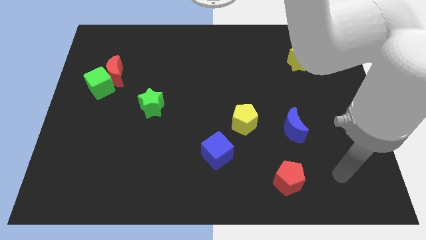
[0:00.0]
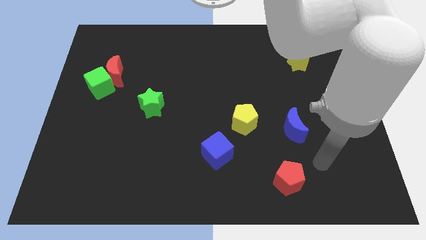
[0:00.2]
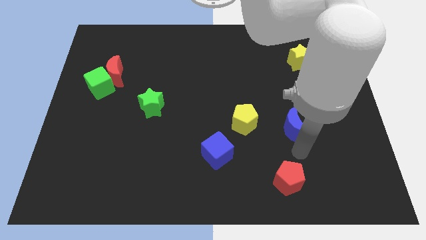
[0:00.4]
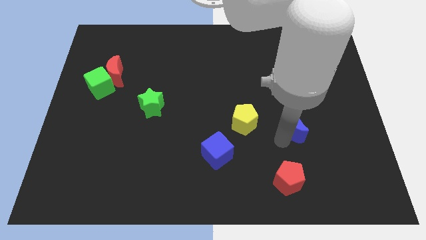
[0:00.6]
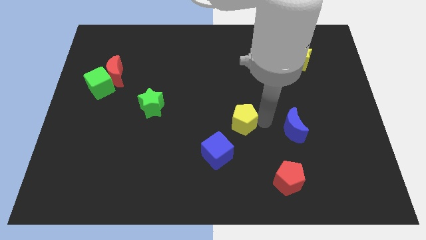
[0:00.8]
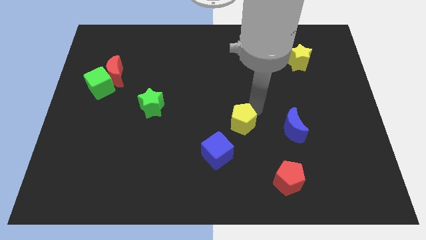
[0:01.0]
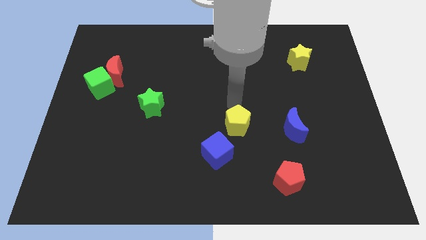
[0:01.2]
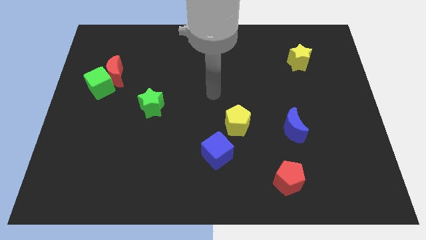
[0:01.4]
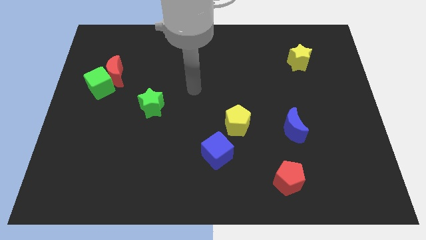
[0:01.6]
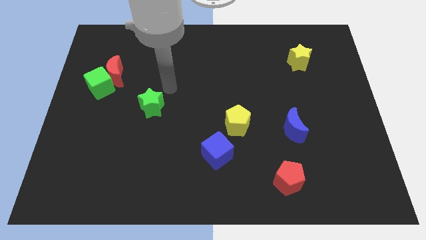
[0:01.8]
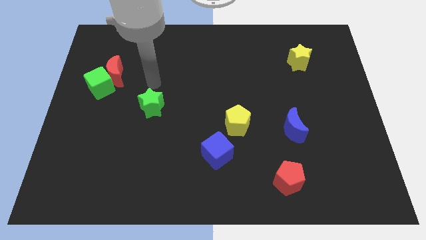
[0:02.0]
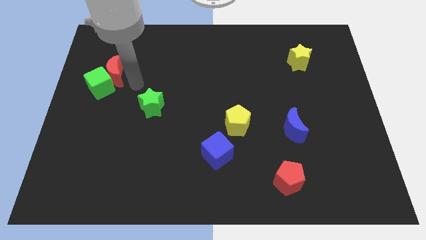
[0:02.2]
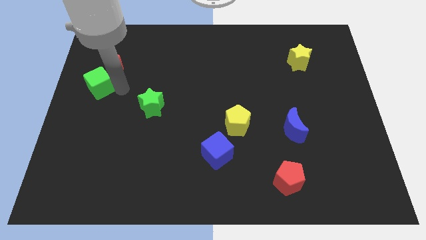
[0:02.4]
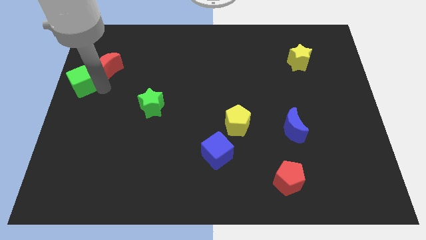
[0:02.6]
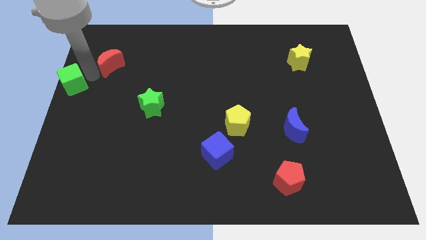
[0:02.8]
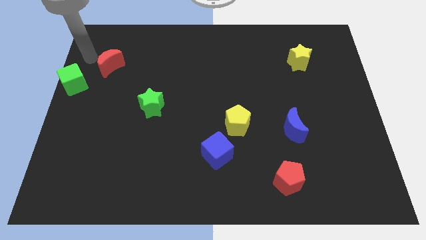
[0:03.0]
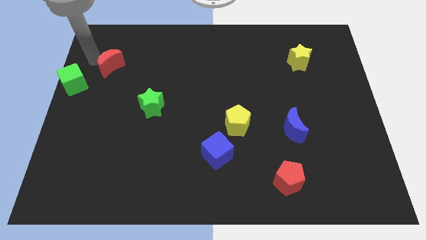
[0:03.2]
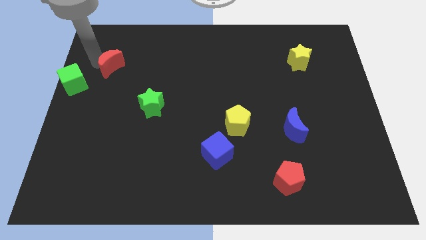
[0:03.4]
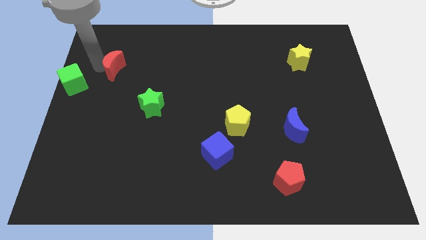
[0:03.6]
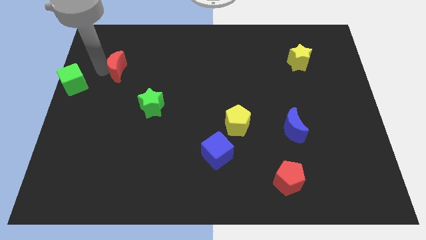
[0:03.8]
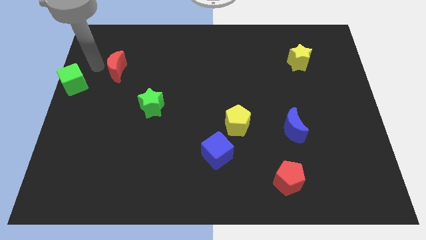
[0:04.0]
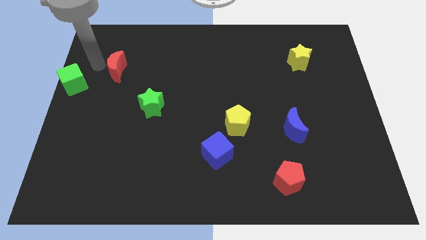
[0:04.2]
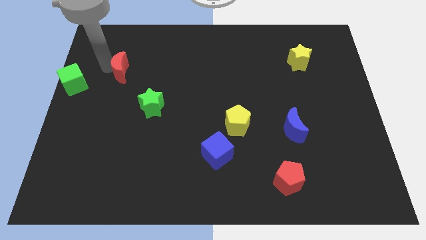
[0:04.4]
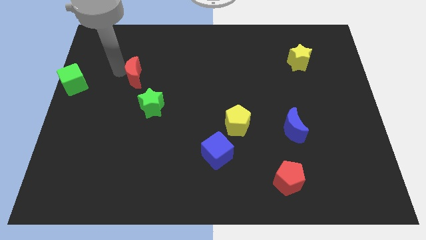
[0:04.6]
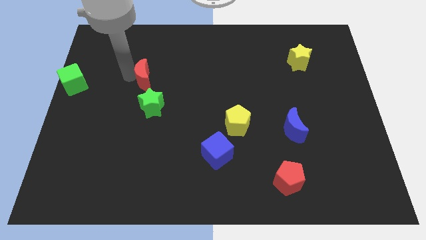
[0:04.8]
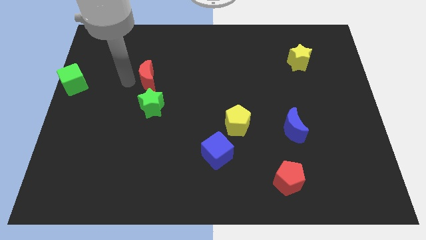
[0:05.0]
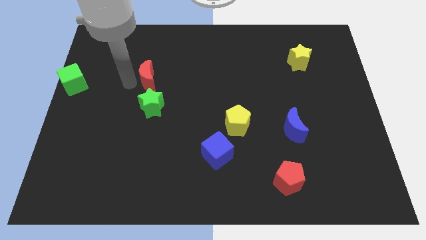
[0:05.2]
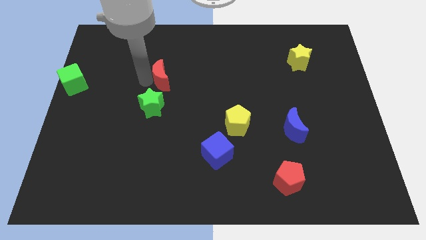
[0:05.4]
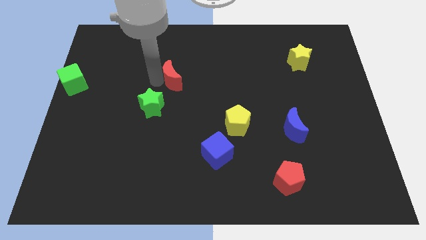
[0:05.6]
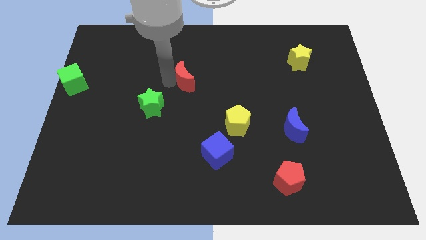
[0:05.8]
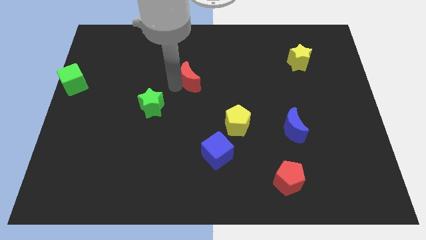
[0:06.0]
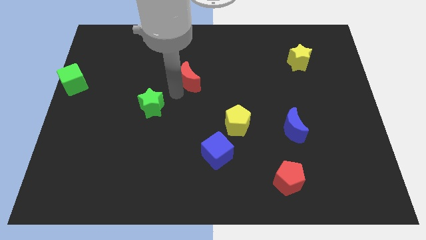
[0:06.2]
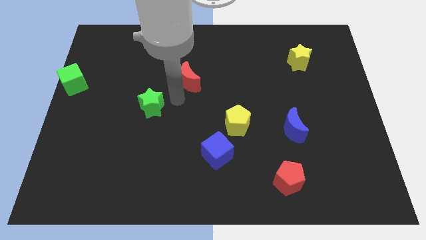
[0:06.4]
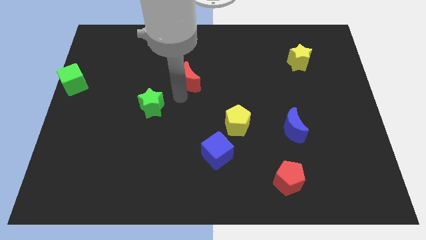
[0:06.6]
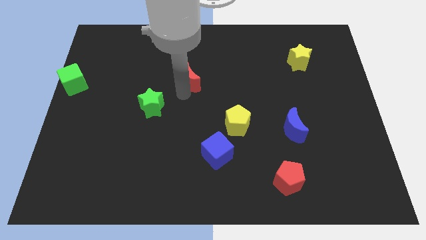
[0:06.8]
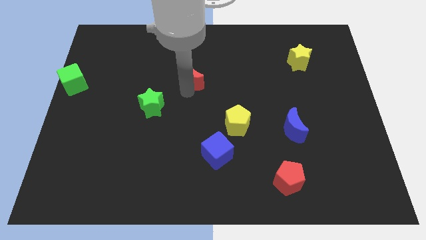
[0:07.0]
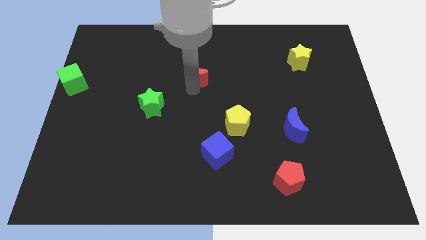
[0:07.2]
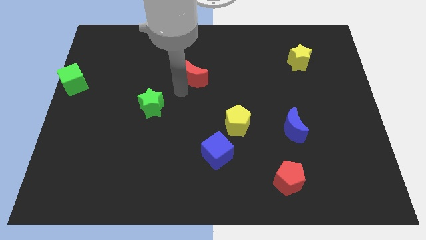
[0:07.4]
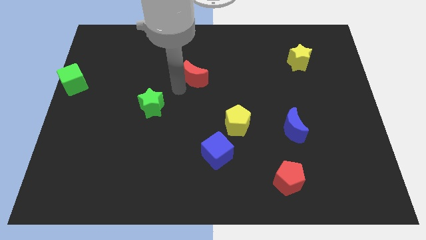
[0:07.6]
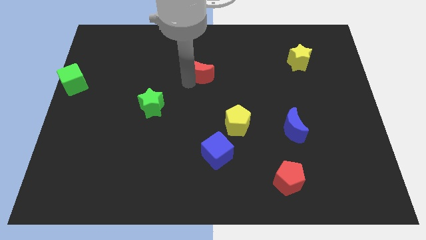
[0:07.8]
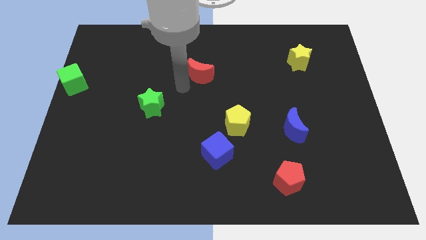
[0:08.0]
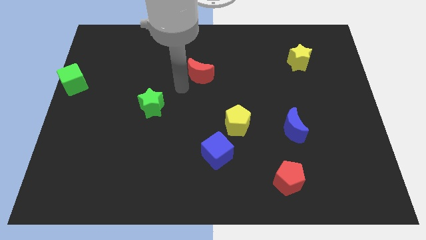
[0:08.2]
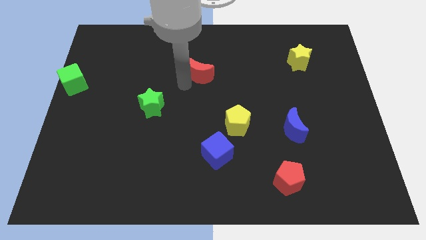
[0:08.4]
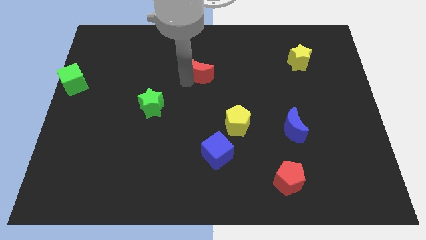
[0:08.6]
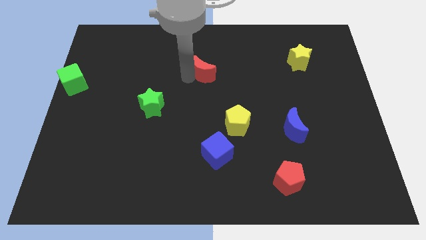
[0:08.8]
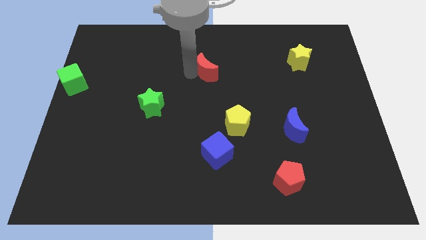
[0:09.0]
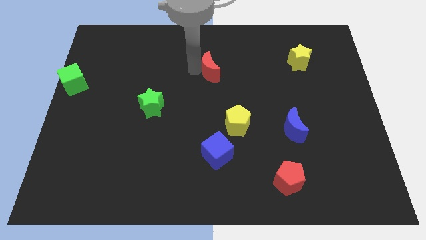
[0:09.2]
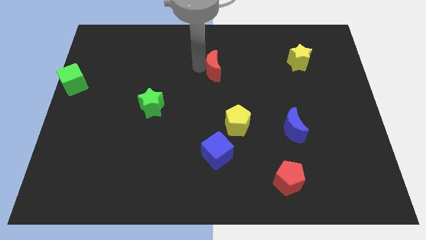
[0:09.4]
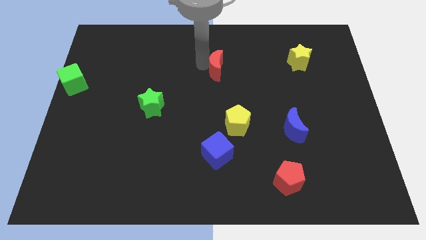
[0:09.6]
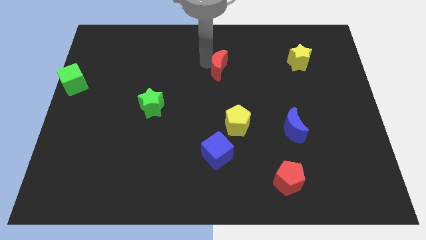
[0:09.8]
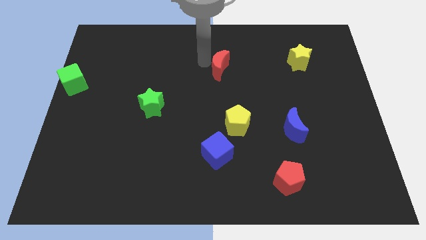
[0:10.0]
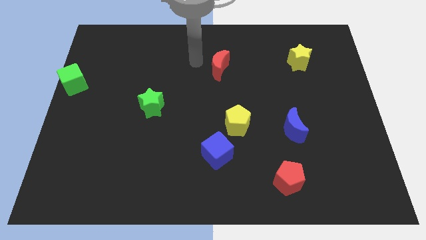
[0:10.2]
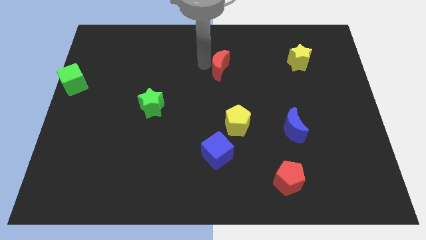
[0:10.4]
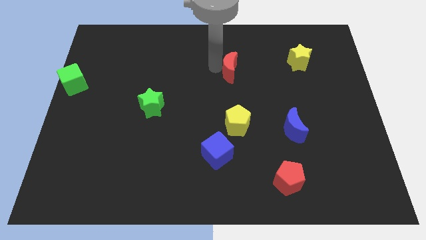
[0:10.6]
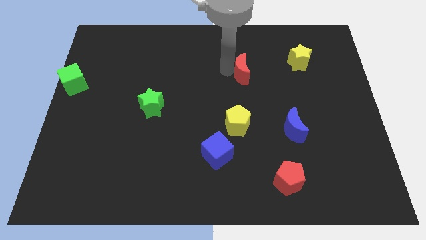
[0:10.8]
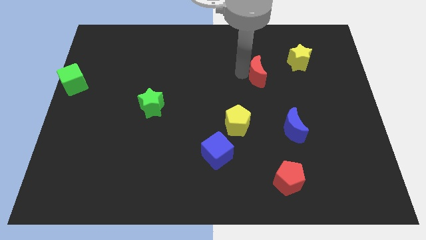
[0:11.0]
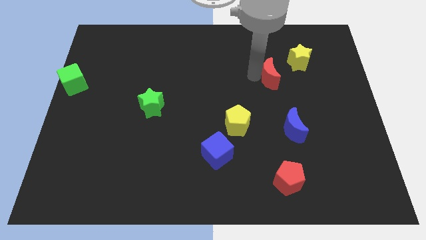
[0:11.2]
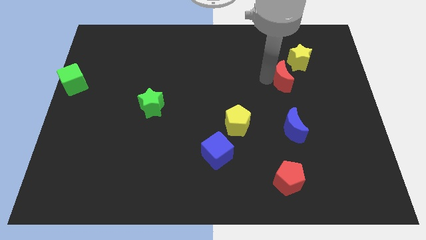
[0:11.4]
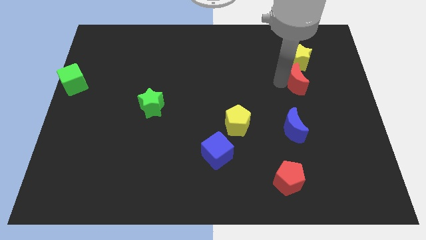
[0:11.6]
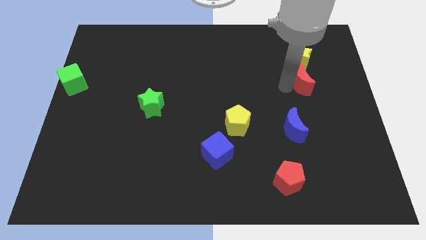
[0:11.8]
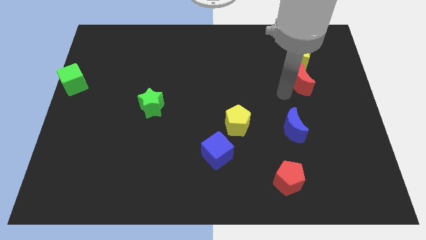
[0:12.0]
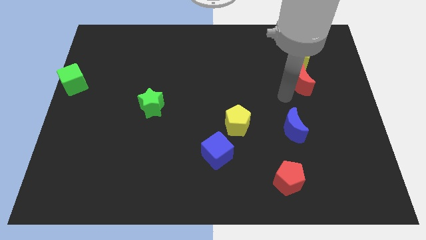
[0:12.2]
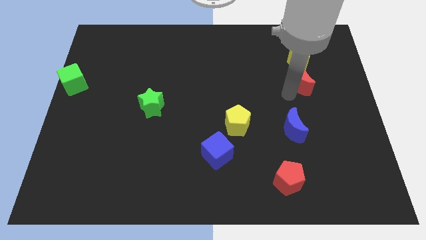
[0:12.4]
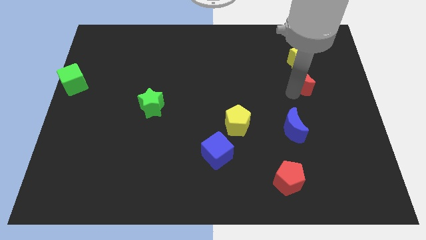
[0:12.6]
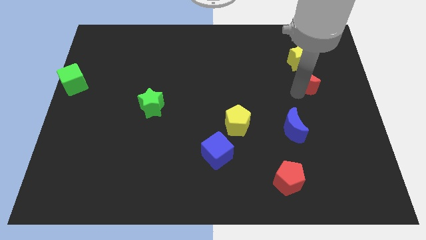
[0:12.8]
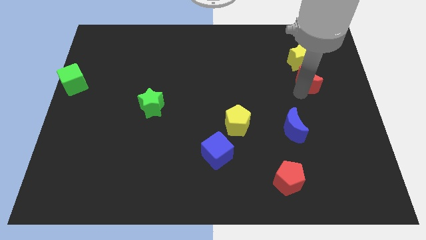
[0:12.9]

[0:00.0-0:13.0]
push the red moon to the bottom right of the yellow star
